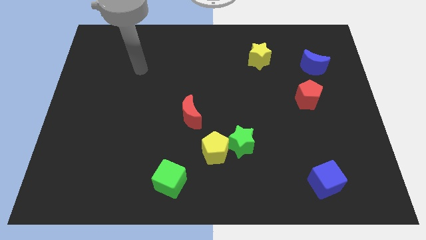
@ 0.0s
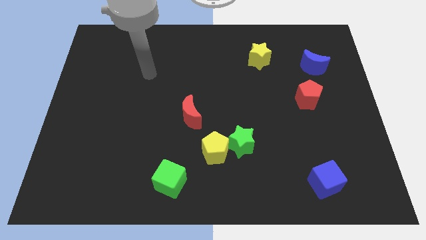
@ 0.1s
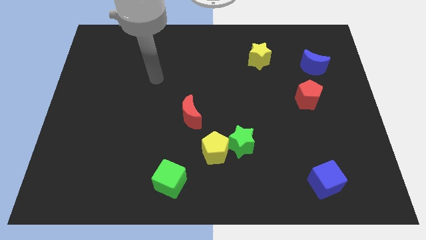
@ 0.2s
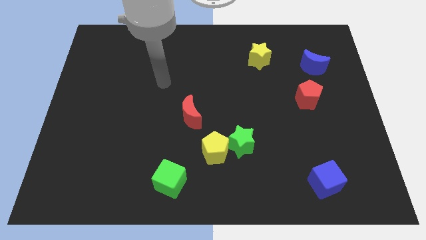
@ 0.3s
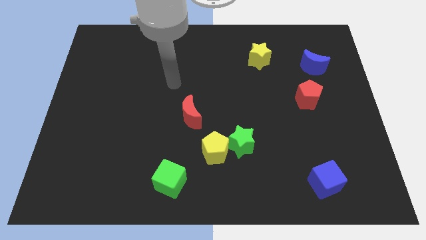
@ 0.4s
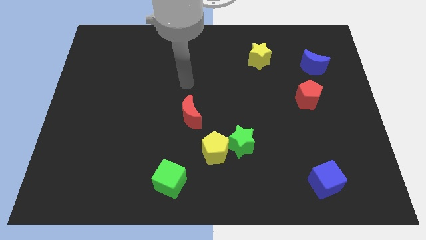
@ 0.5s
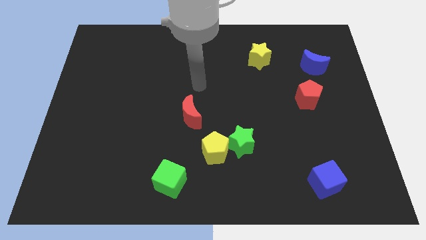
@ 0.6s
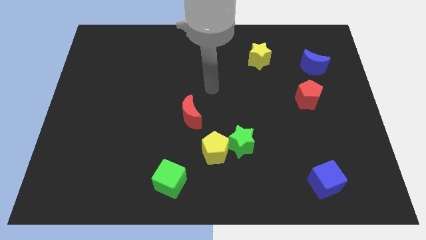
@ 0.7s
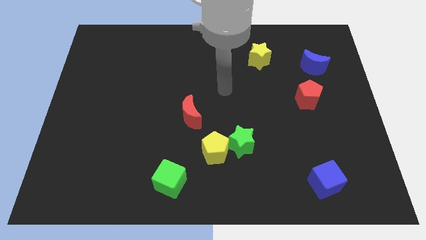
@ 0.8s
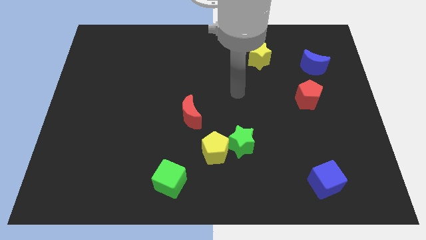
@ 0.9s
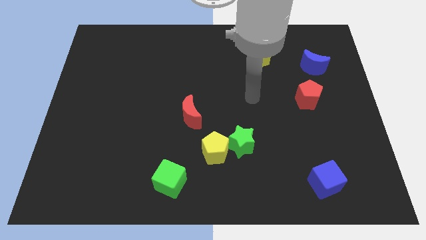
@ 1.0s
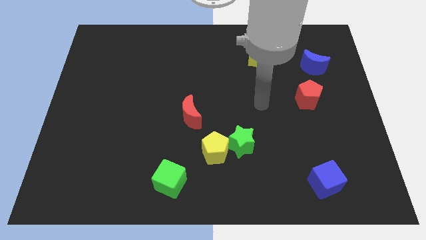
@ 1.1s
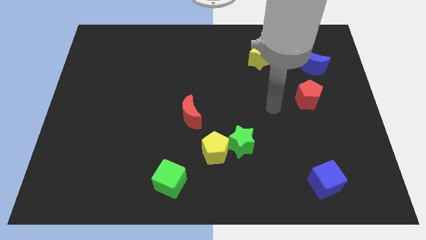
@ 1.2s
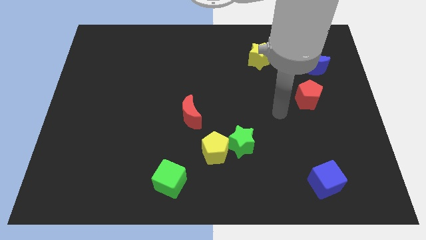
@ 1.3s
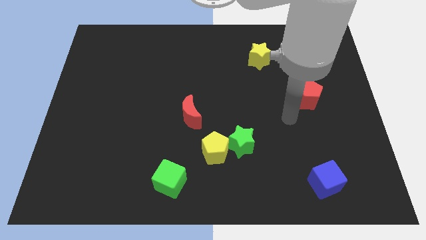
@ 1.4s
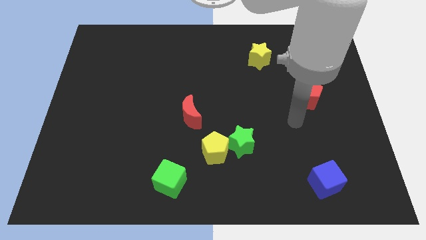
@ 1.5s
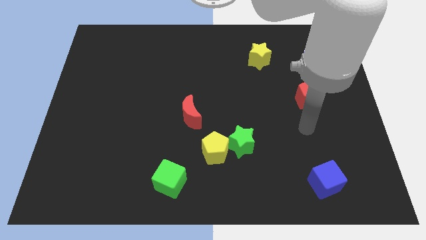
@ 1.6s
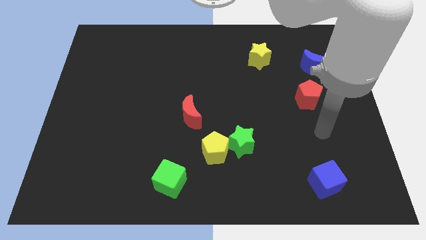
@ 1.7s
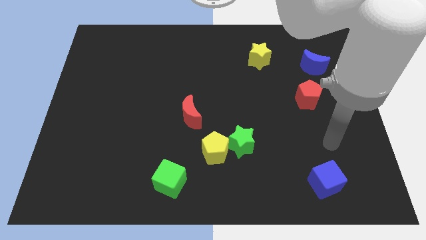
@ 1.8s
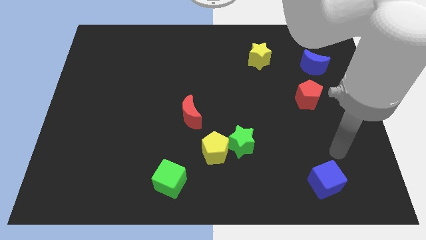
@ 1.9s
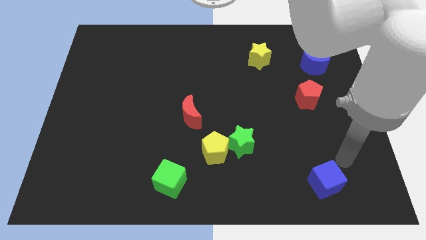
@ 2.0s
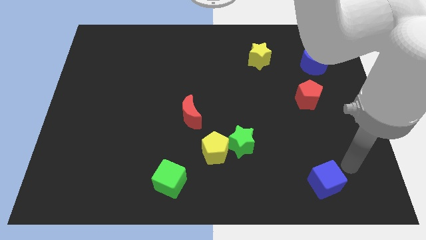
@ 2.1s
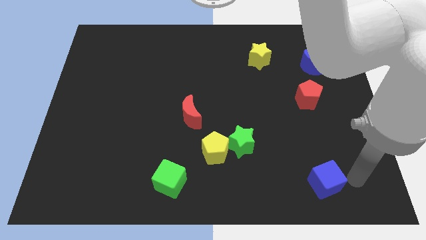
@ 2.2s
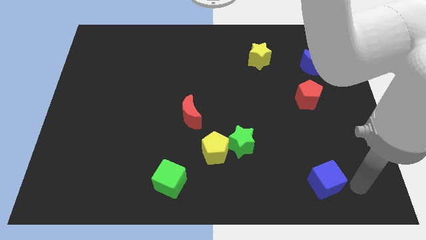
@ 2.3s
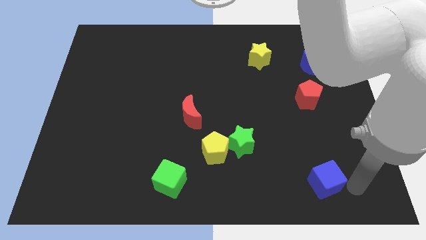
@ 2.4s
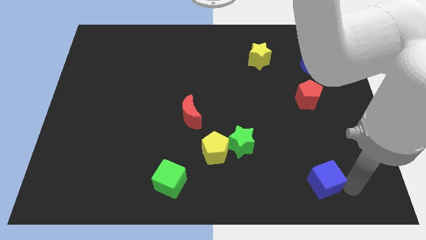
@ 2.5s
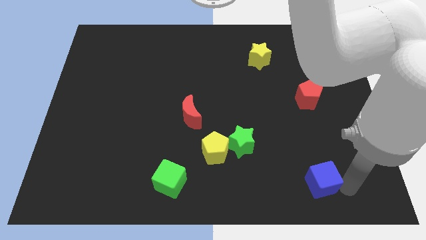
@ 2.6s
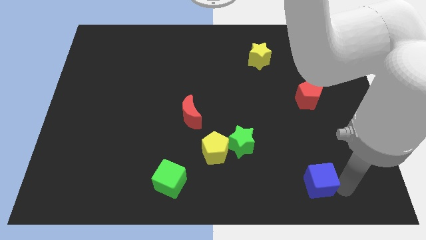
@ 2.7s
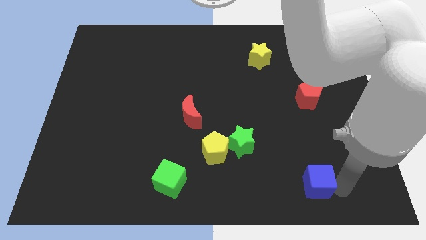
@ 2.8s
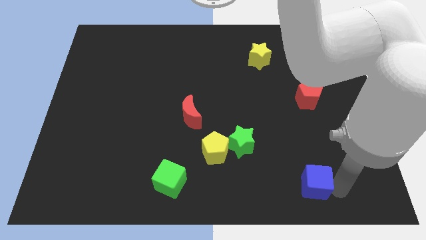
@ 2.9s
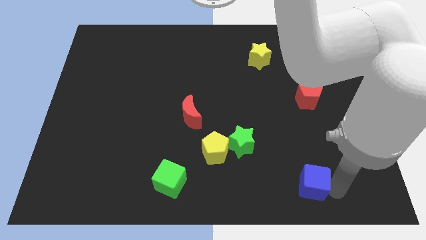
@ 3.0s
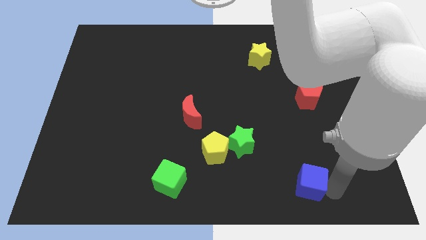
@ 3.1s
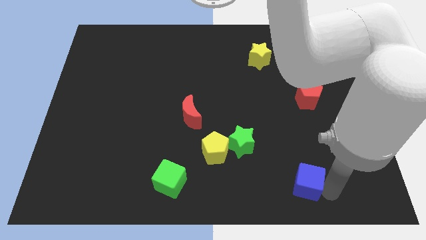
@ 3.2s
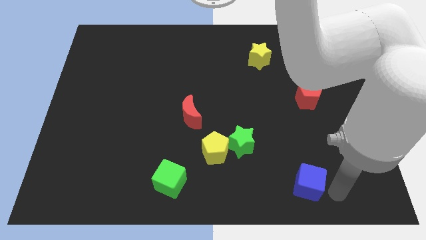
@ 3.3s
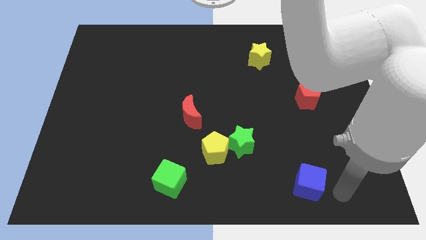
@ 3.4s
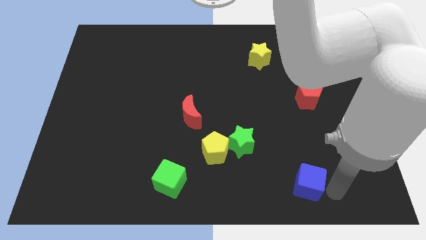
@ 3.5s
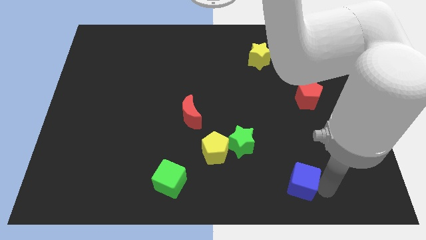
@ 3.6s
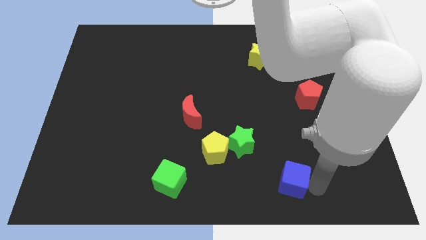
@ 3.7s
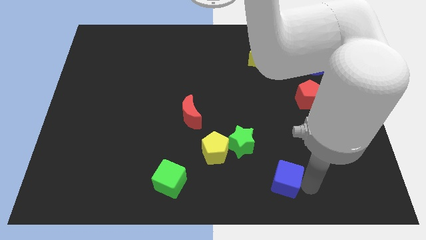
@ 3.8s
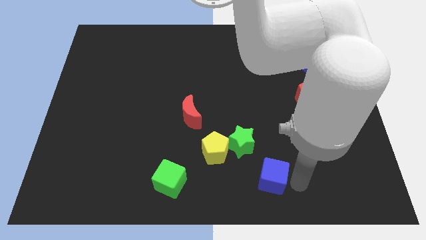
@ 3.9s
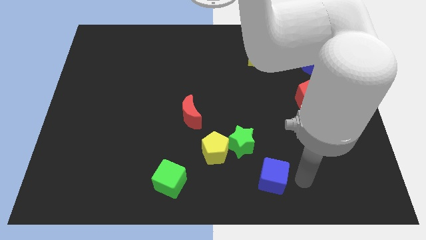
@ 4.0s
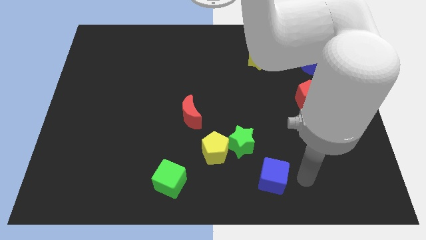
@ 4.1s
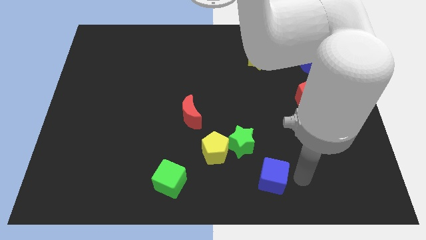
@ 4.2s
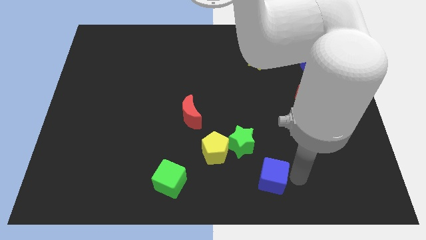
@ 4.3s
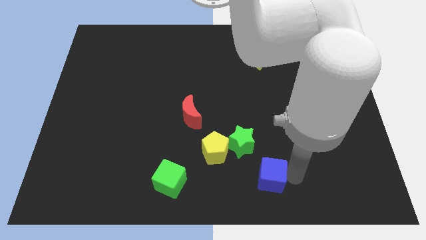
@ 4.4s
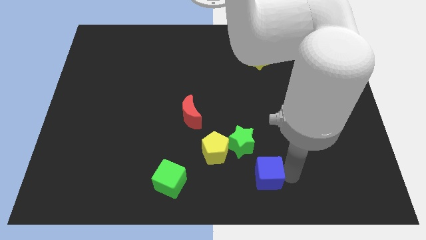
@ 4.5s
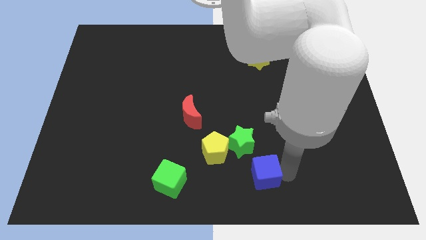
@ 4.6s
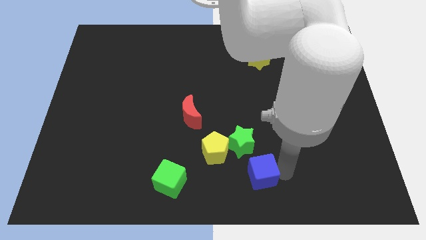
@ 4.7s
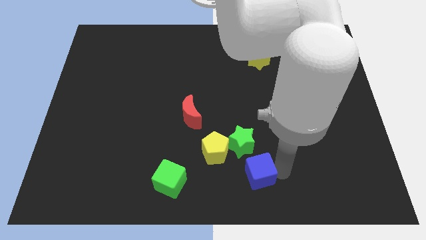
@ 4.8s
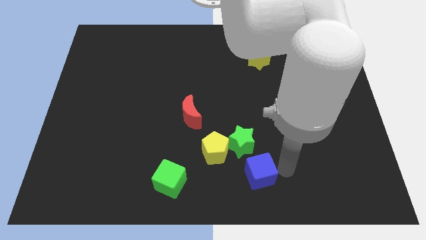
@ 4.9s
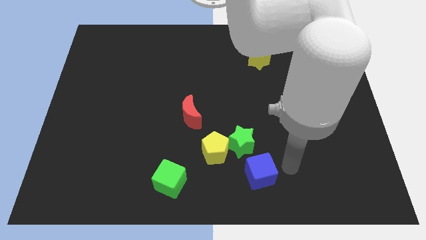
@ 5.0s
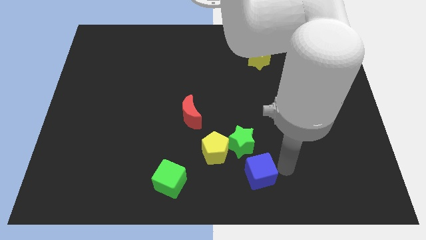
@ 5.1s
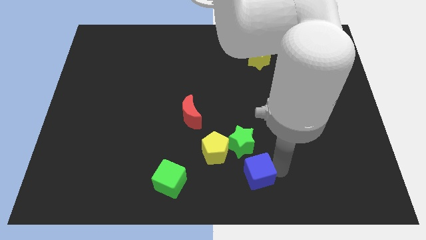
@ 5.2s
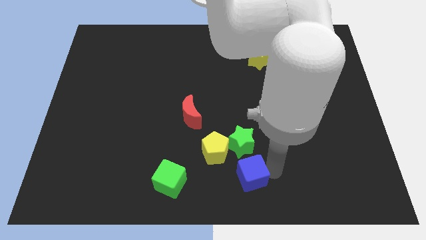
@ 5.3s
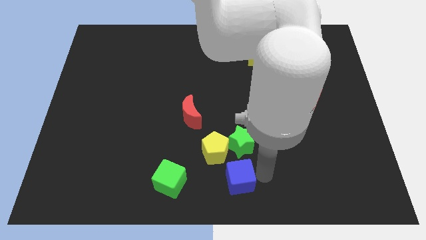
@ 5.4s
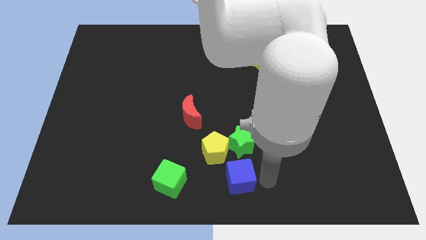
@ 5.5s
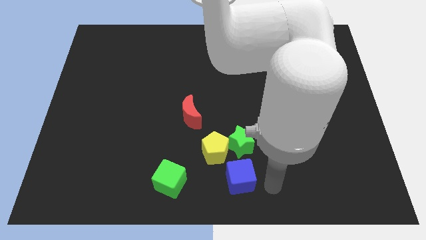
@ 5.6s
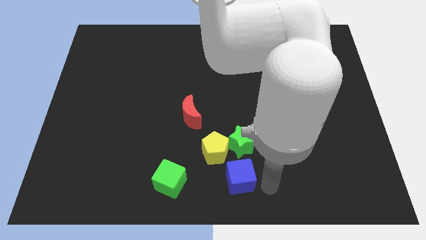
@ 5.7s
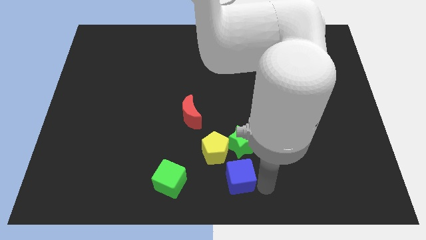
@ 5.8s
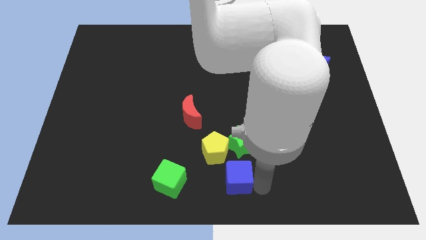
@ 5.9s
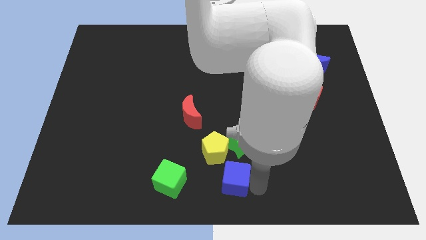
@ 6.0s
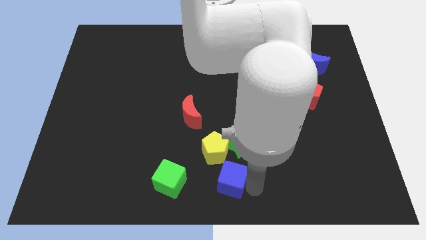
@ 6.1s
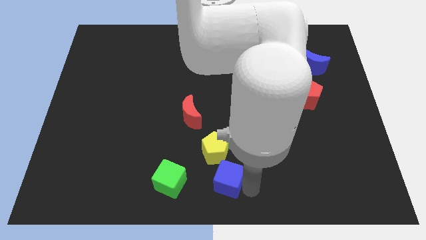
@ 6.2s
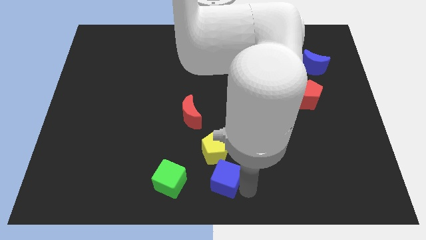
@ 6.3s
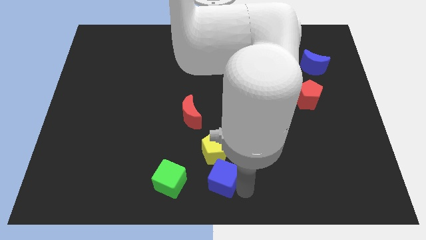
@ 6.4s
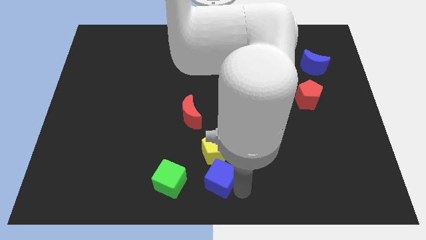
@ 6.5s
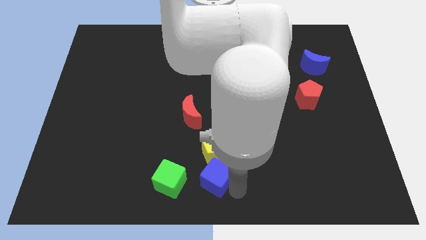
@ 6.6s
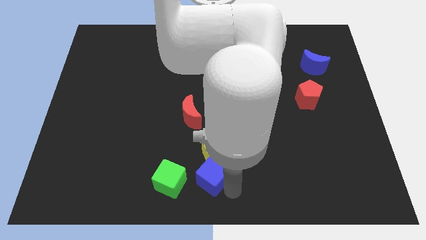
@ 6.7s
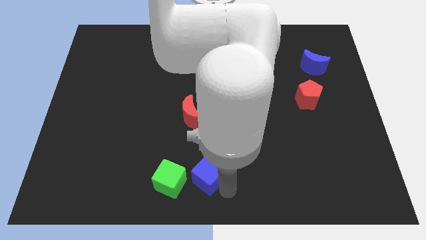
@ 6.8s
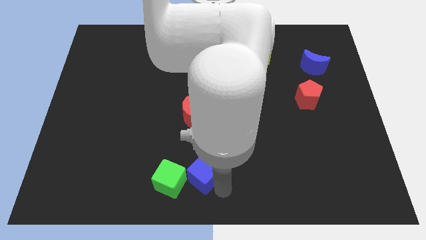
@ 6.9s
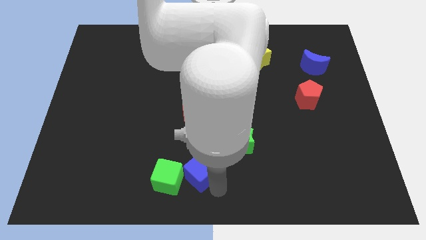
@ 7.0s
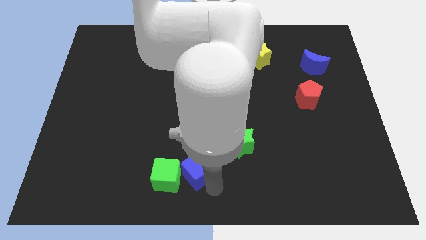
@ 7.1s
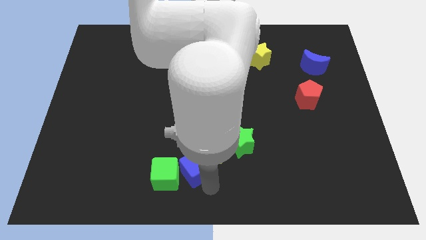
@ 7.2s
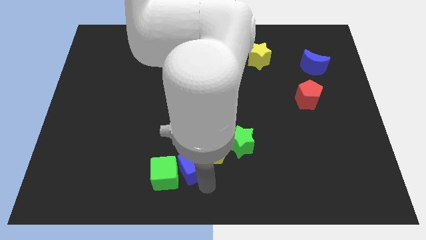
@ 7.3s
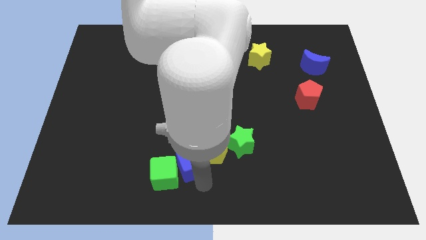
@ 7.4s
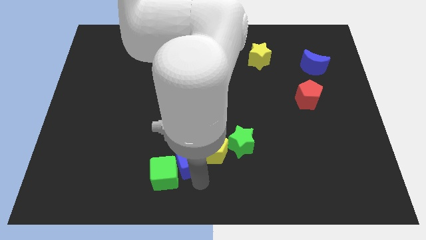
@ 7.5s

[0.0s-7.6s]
move the blue cube to the left side of the green star

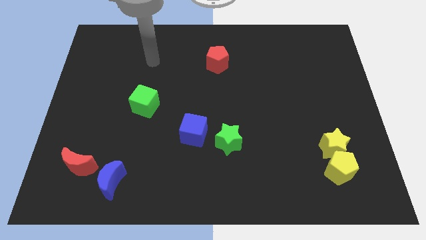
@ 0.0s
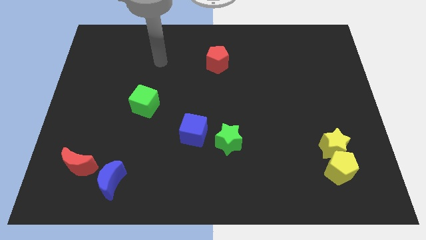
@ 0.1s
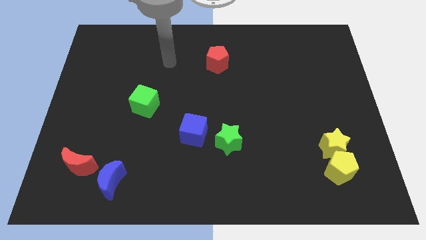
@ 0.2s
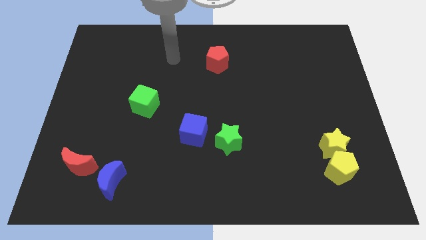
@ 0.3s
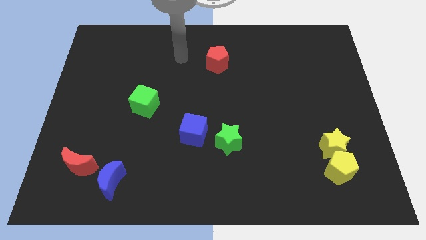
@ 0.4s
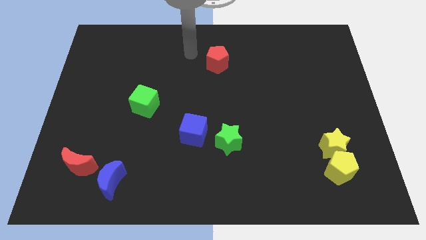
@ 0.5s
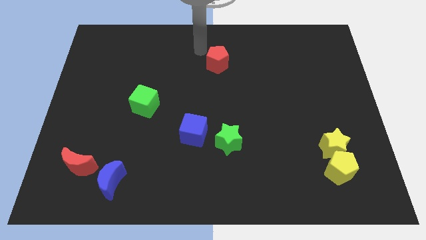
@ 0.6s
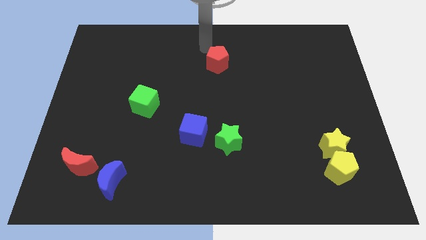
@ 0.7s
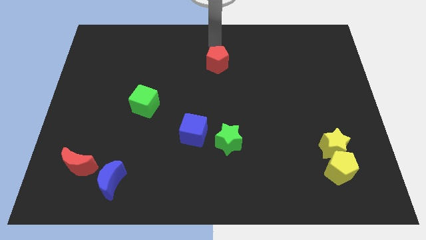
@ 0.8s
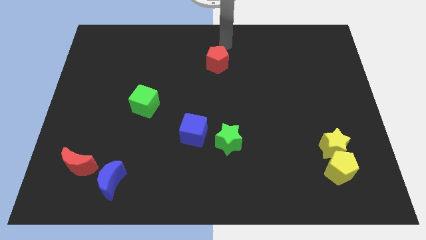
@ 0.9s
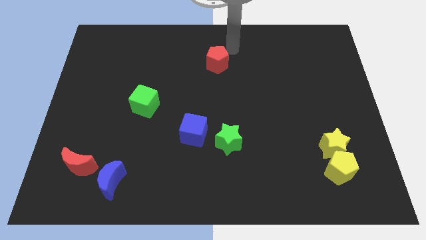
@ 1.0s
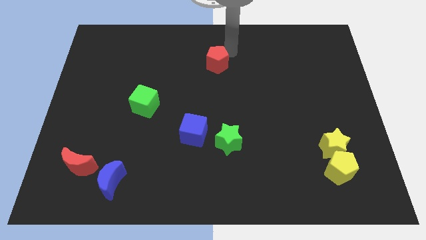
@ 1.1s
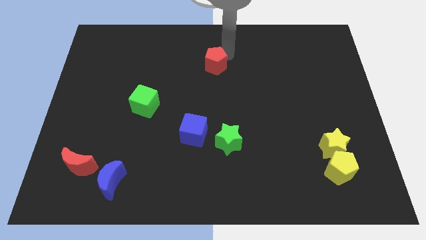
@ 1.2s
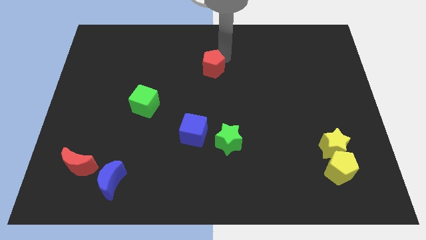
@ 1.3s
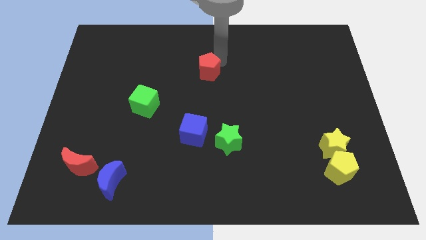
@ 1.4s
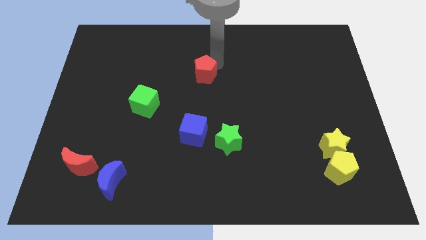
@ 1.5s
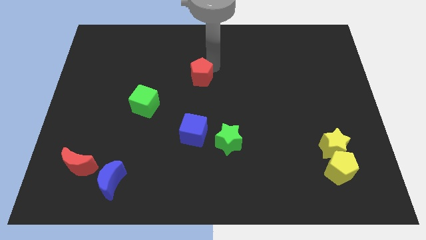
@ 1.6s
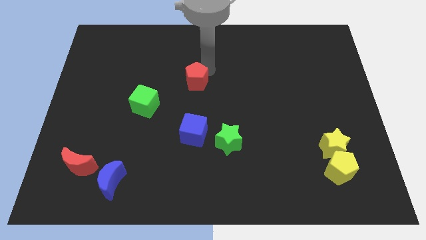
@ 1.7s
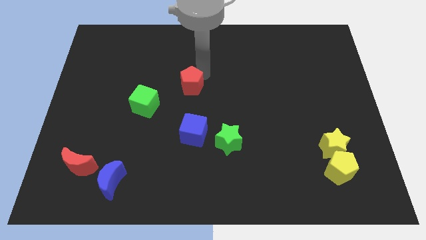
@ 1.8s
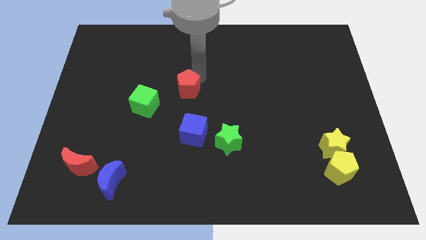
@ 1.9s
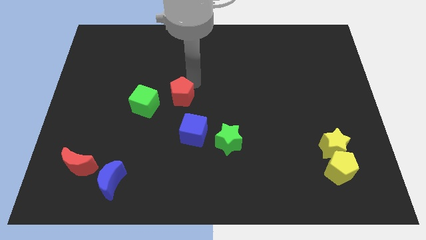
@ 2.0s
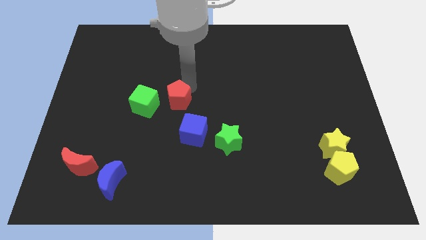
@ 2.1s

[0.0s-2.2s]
slide the red pentagon diagonally up and to the left of the blue cube
